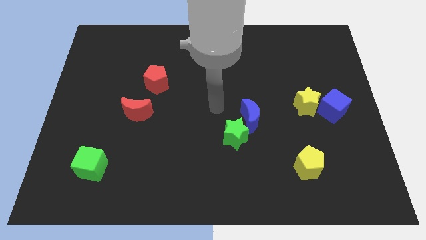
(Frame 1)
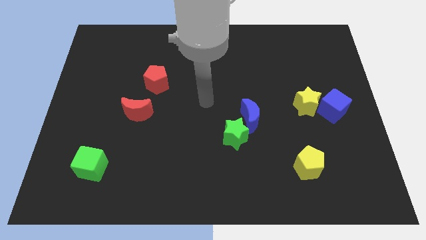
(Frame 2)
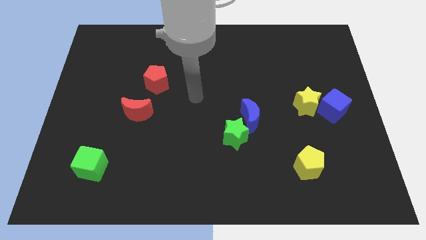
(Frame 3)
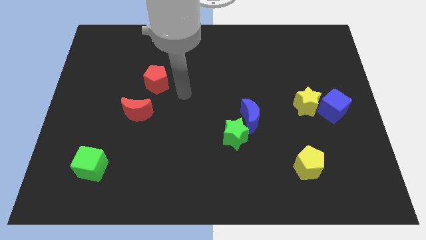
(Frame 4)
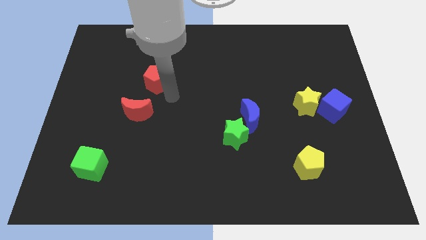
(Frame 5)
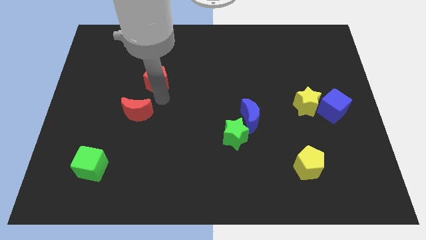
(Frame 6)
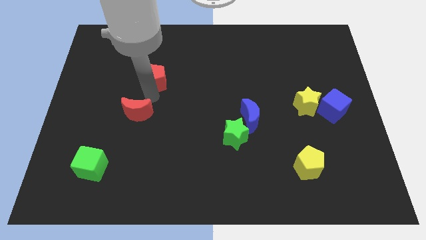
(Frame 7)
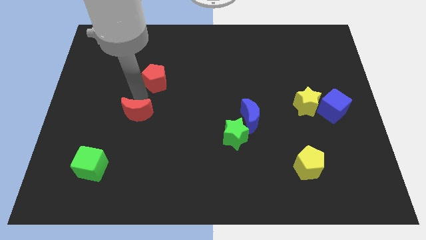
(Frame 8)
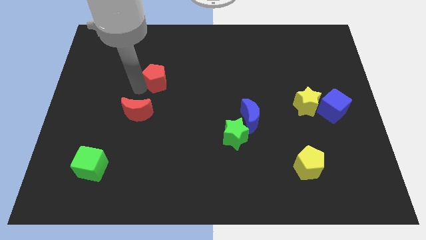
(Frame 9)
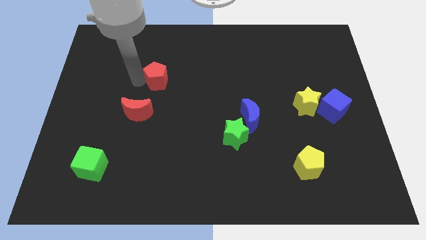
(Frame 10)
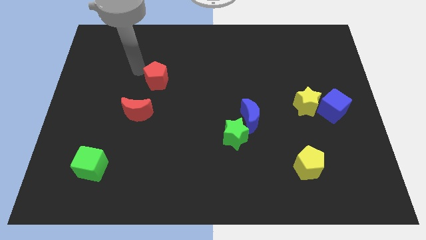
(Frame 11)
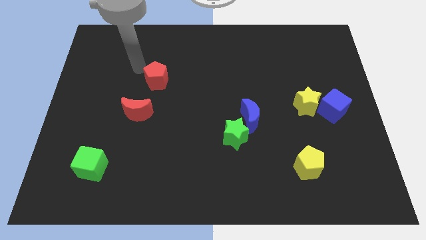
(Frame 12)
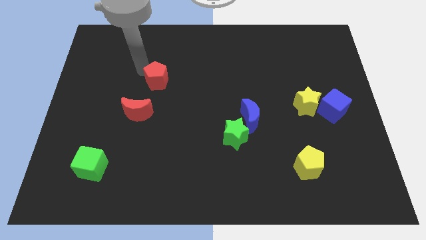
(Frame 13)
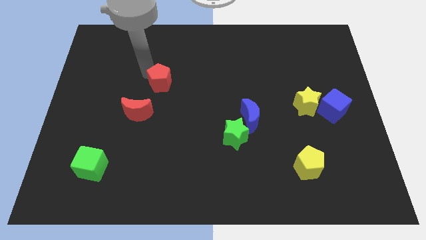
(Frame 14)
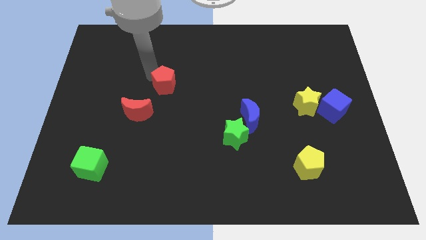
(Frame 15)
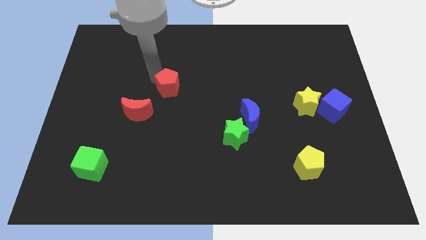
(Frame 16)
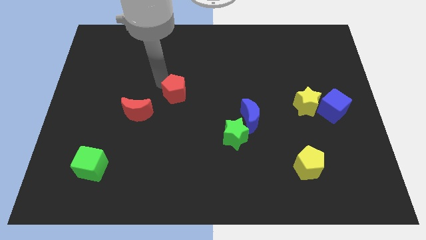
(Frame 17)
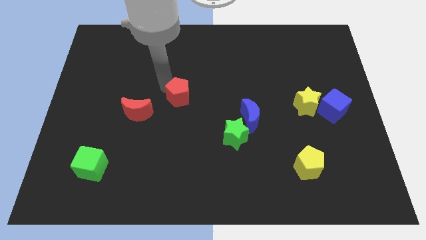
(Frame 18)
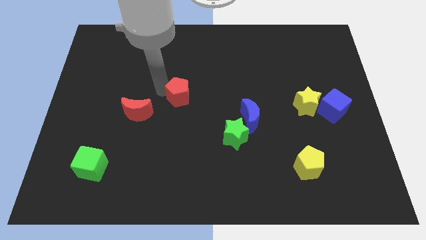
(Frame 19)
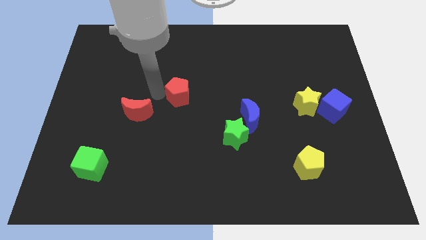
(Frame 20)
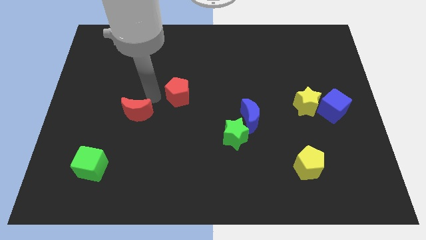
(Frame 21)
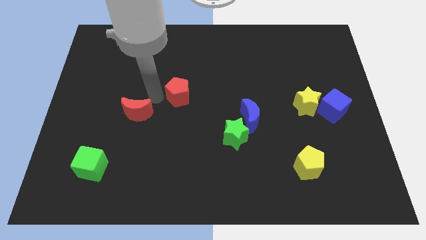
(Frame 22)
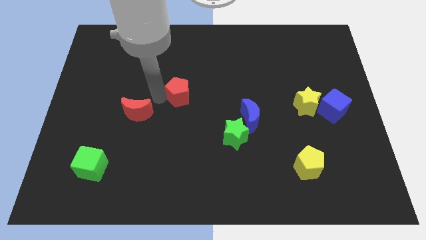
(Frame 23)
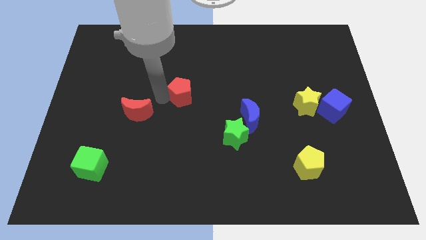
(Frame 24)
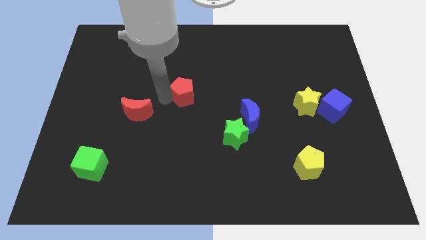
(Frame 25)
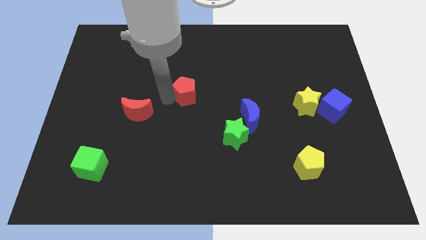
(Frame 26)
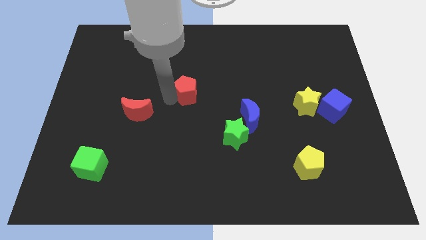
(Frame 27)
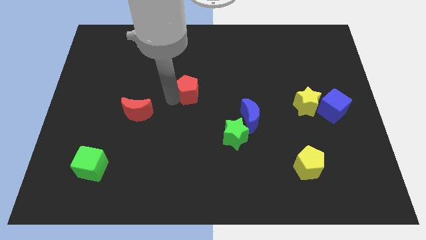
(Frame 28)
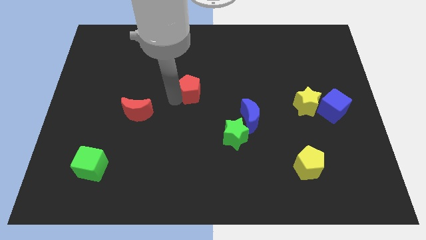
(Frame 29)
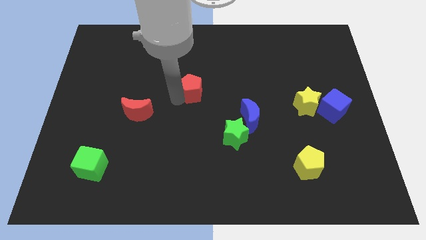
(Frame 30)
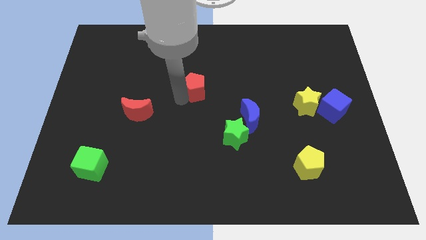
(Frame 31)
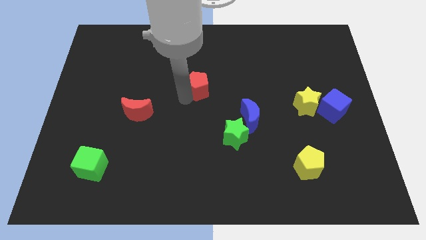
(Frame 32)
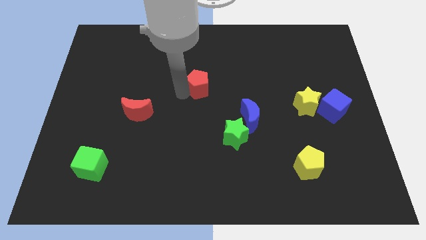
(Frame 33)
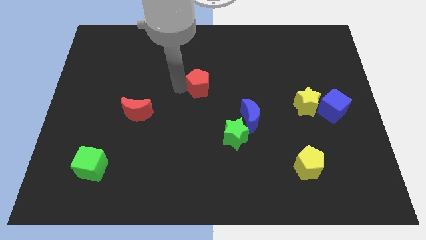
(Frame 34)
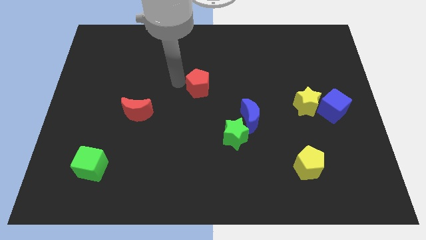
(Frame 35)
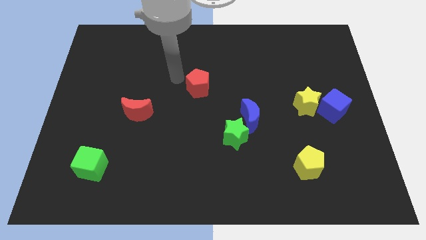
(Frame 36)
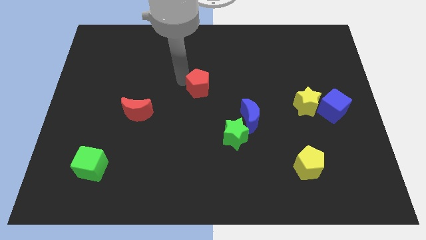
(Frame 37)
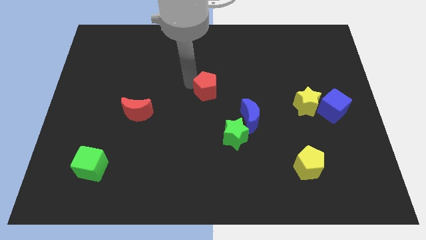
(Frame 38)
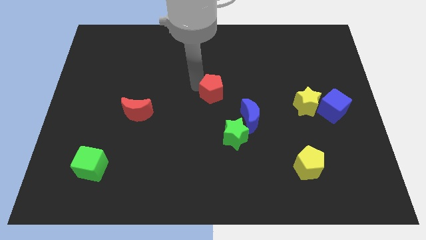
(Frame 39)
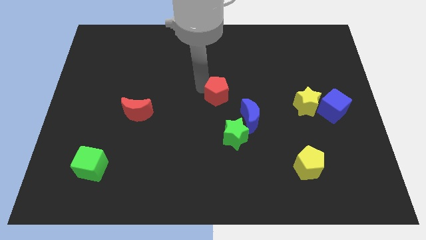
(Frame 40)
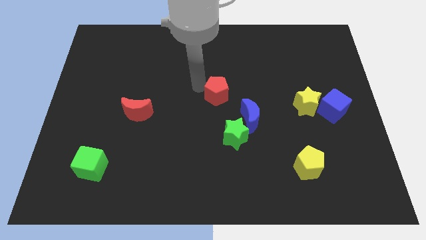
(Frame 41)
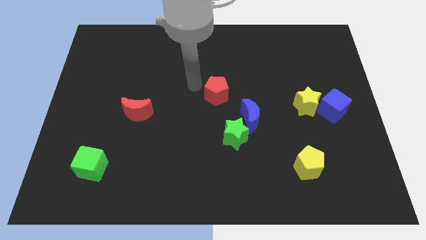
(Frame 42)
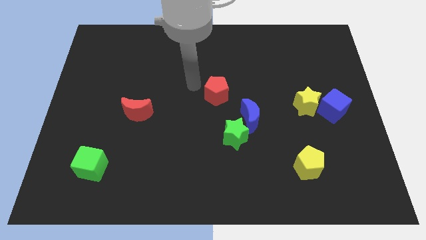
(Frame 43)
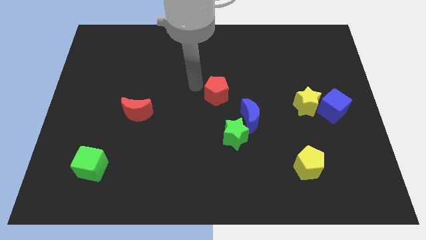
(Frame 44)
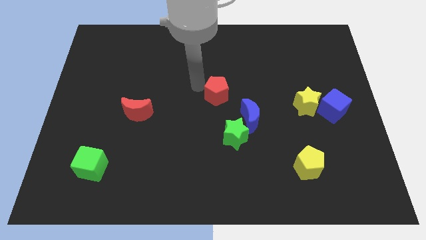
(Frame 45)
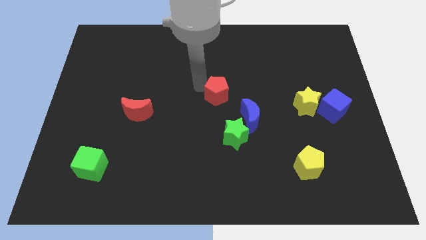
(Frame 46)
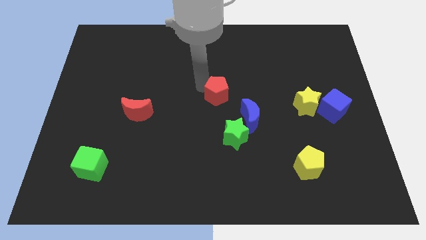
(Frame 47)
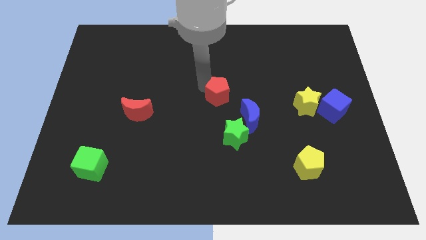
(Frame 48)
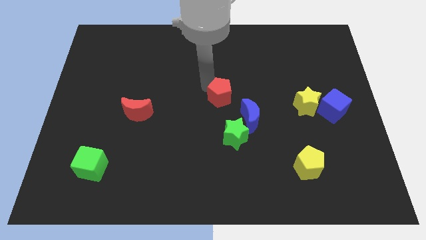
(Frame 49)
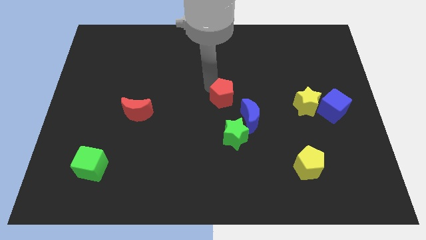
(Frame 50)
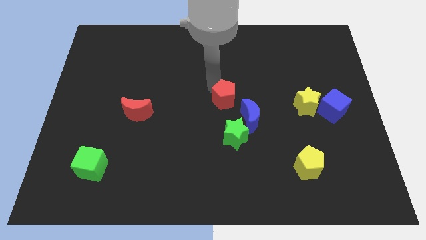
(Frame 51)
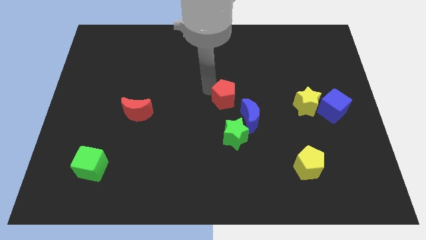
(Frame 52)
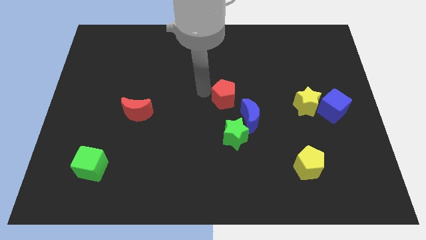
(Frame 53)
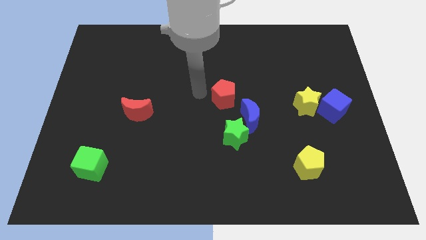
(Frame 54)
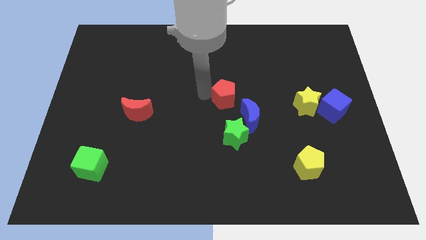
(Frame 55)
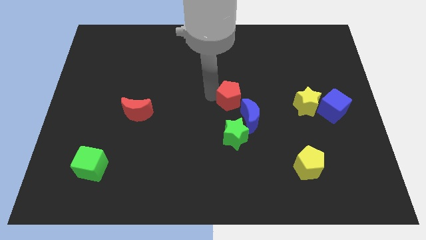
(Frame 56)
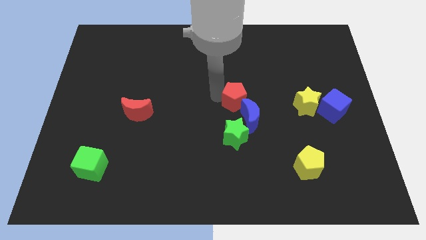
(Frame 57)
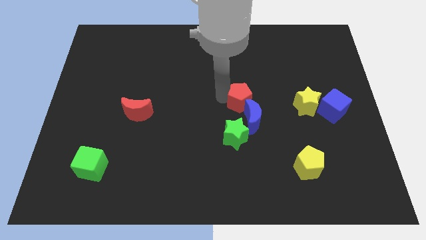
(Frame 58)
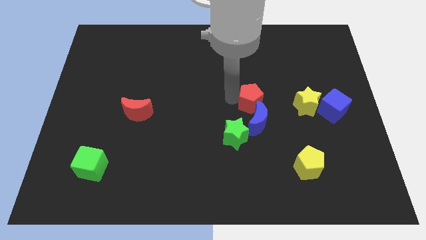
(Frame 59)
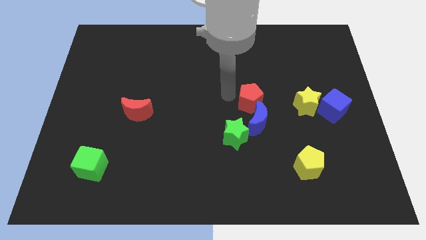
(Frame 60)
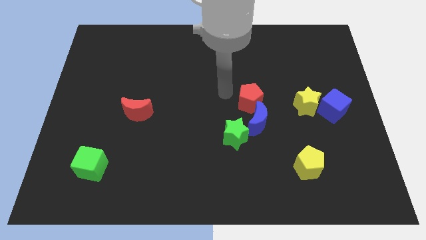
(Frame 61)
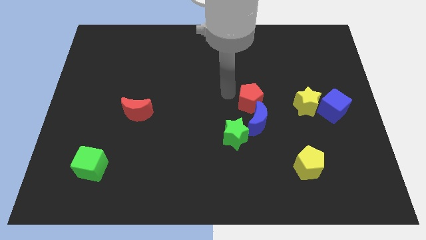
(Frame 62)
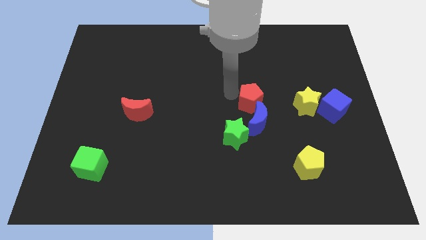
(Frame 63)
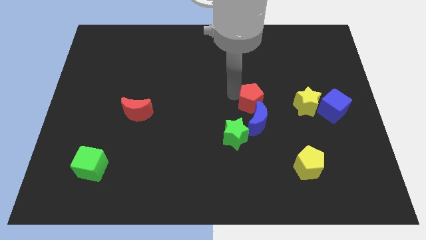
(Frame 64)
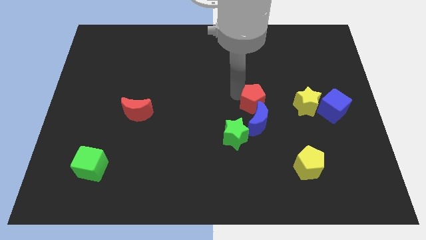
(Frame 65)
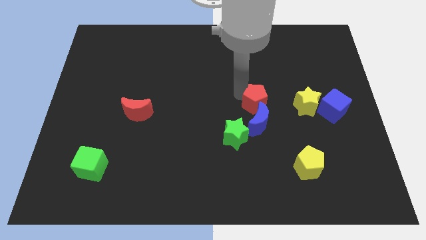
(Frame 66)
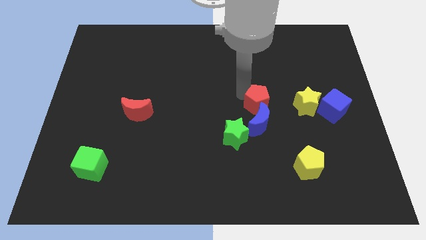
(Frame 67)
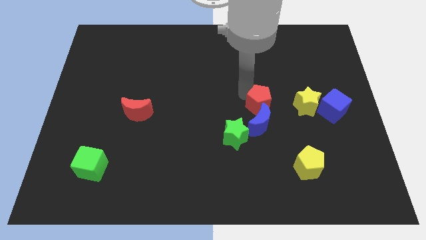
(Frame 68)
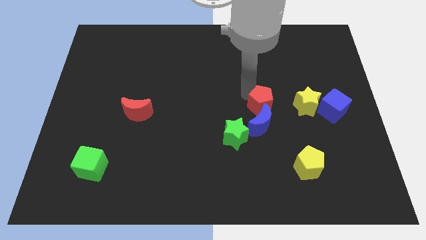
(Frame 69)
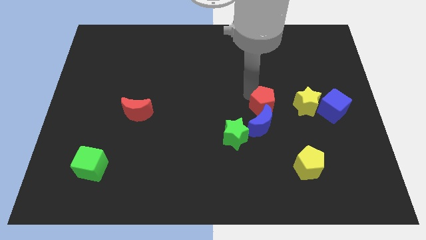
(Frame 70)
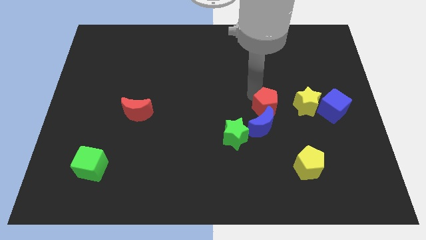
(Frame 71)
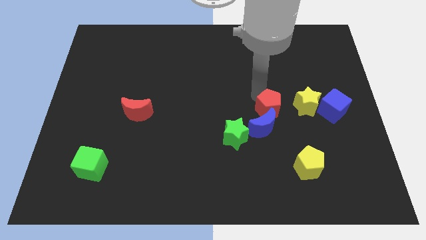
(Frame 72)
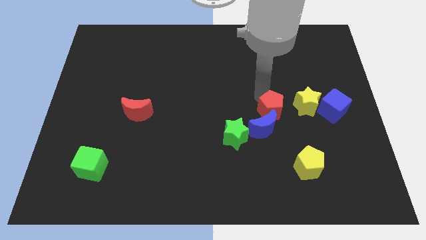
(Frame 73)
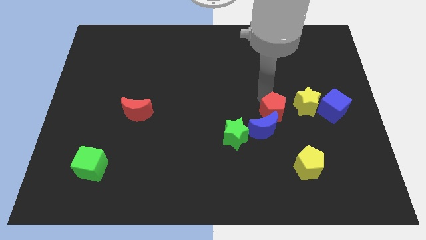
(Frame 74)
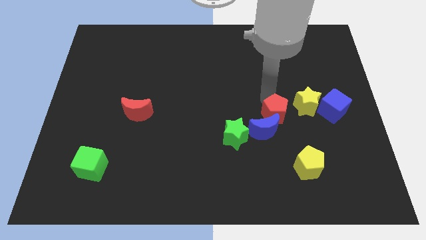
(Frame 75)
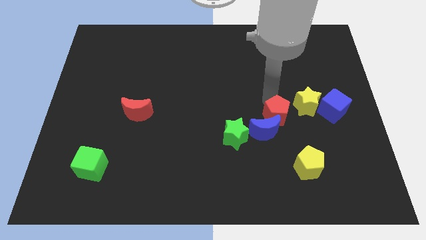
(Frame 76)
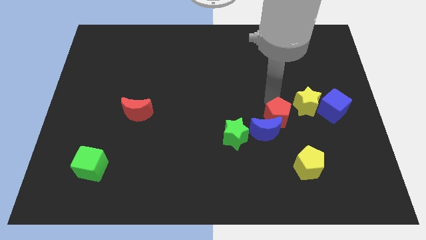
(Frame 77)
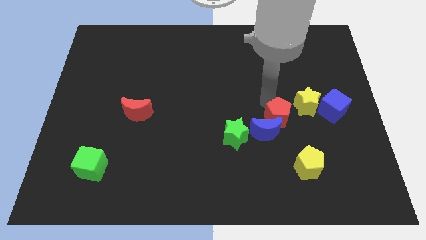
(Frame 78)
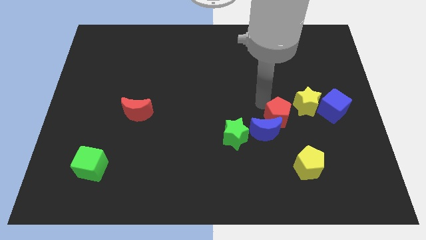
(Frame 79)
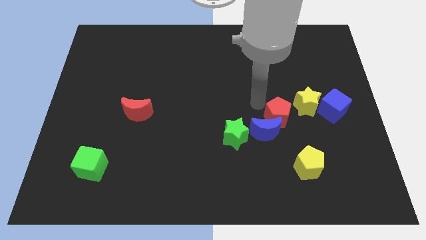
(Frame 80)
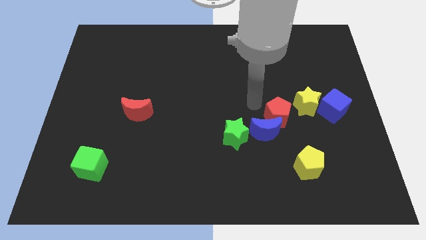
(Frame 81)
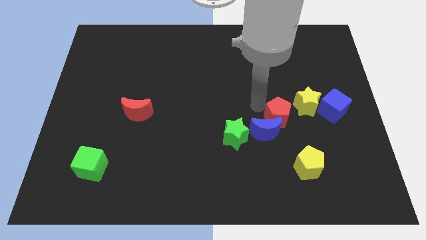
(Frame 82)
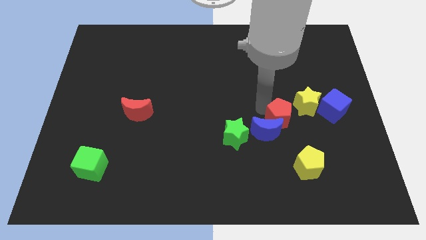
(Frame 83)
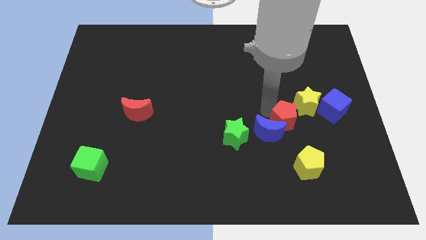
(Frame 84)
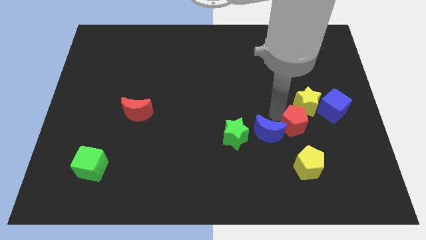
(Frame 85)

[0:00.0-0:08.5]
move the red pentagon to the bottom of the yellow star
